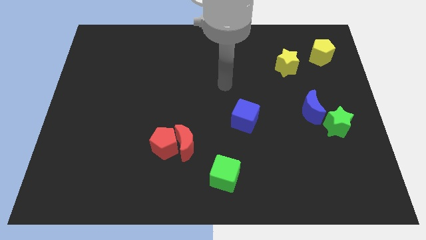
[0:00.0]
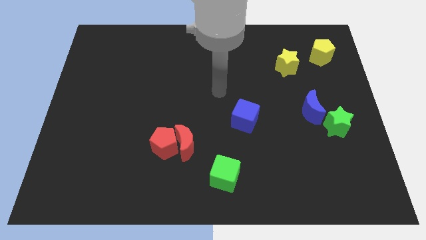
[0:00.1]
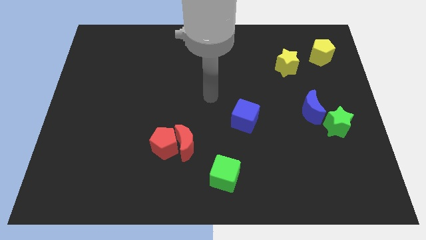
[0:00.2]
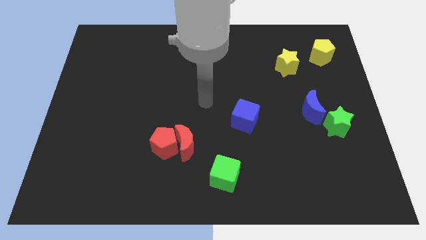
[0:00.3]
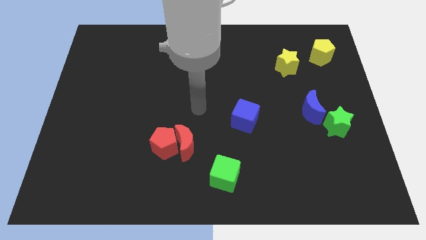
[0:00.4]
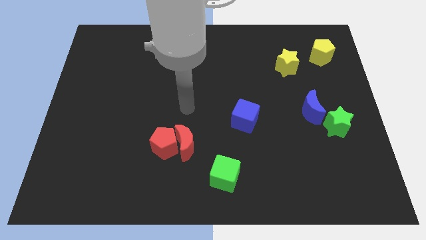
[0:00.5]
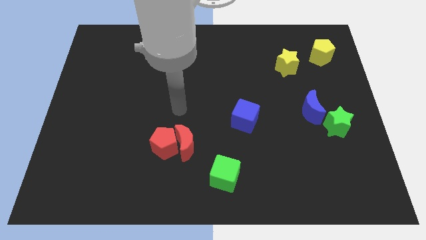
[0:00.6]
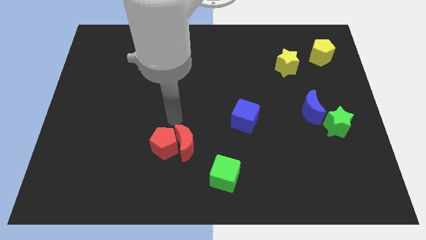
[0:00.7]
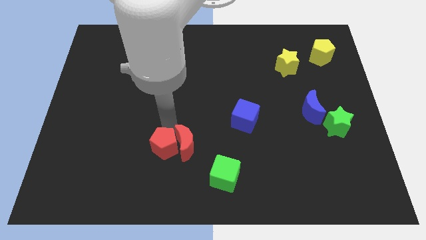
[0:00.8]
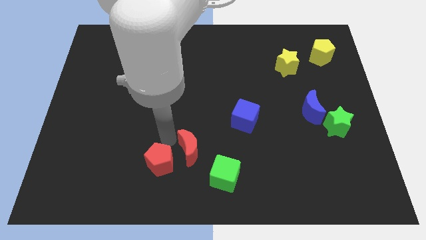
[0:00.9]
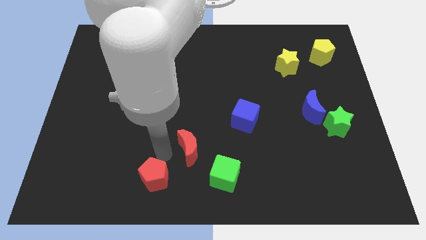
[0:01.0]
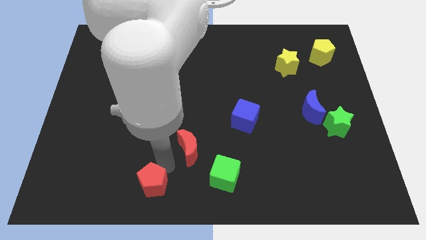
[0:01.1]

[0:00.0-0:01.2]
move the red moon away from the red pentagon

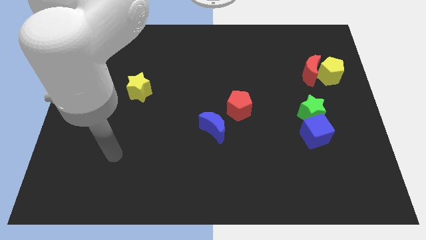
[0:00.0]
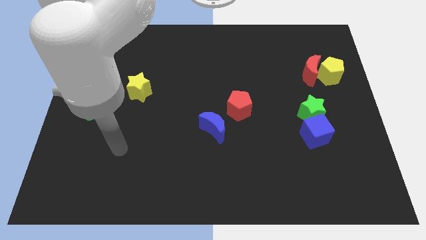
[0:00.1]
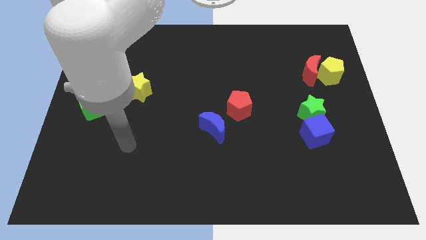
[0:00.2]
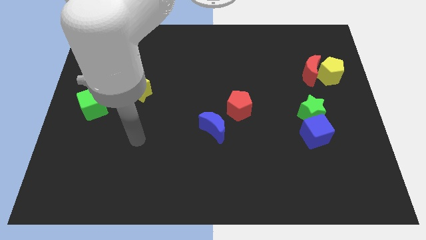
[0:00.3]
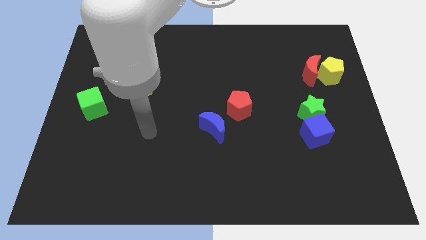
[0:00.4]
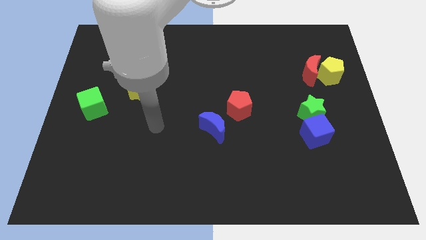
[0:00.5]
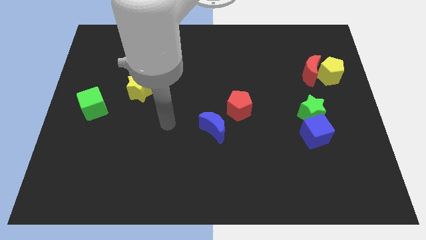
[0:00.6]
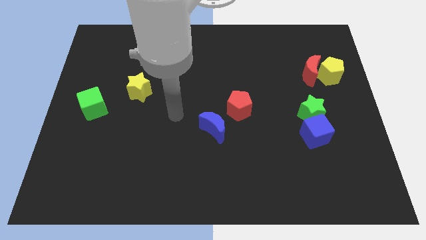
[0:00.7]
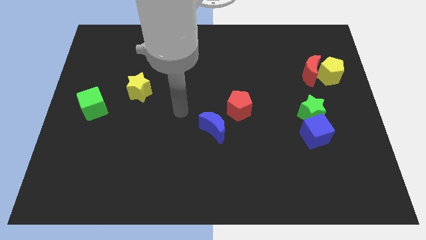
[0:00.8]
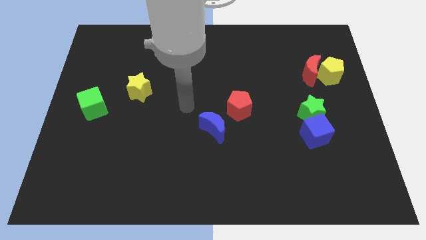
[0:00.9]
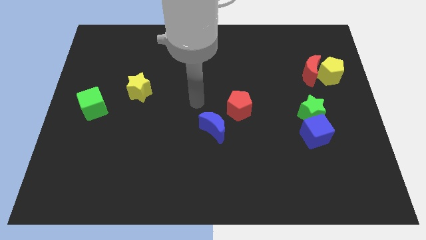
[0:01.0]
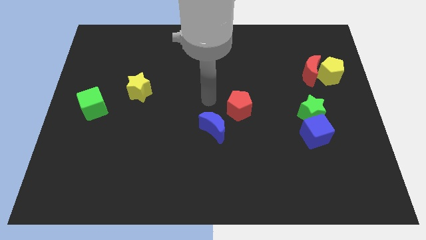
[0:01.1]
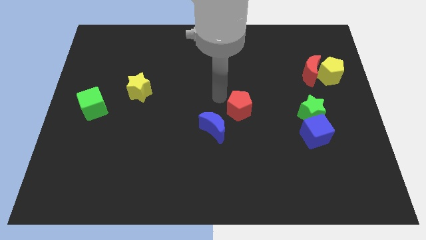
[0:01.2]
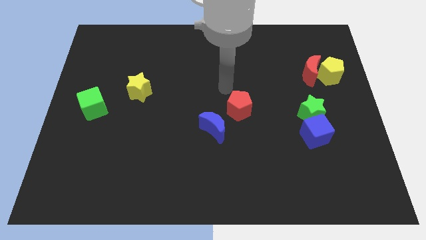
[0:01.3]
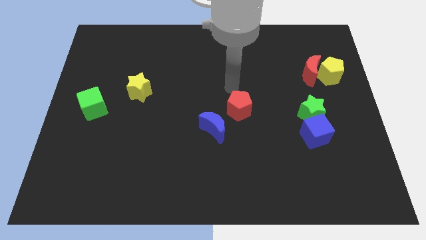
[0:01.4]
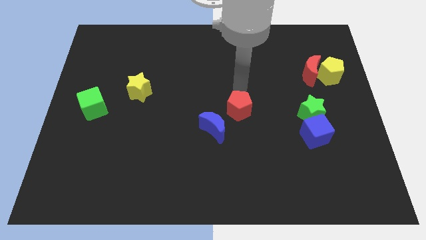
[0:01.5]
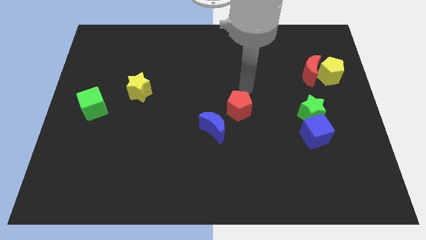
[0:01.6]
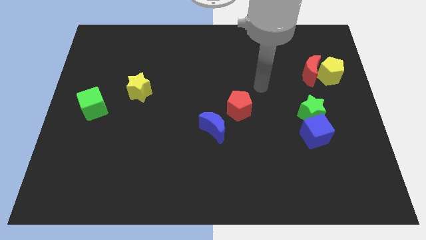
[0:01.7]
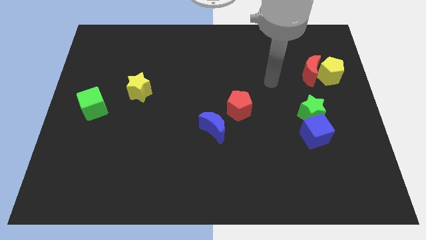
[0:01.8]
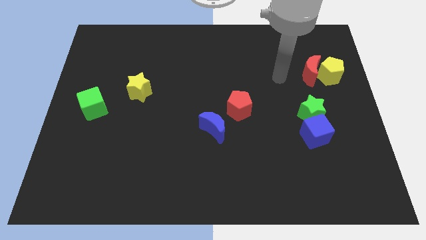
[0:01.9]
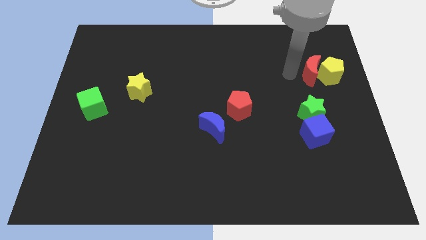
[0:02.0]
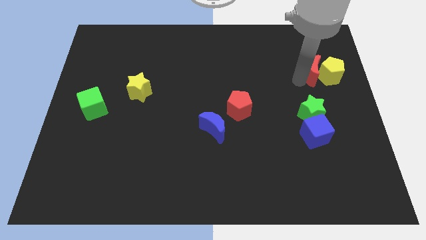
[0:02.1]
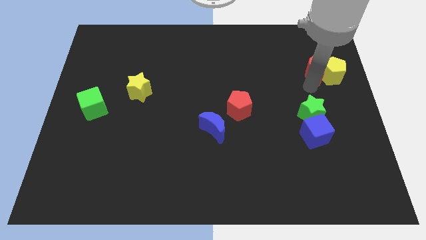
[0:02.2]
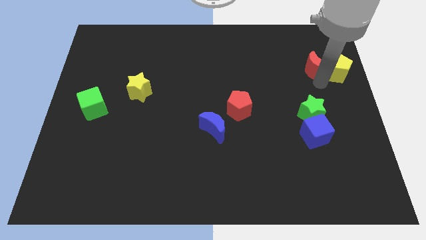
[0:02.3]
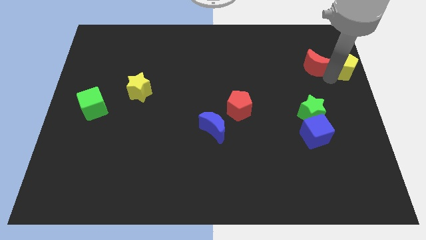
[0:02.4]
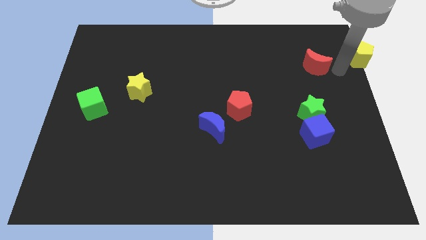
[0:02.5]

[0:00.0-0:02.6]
separate the red moon from the yellow pentagon

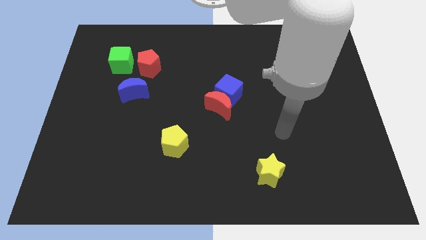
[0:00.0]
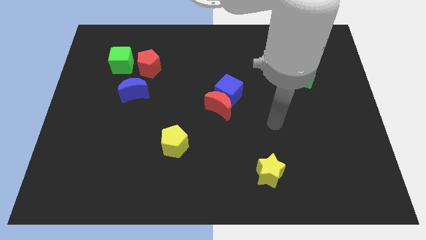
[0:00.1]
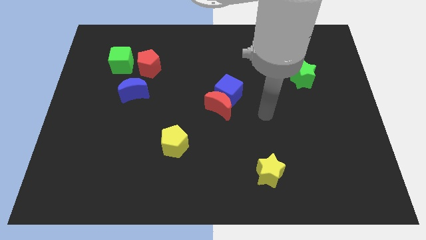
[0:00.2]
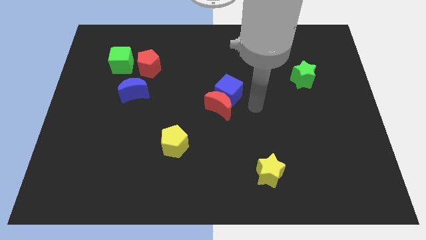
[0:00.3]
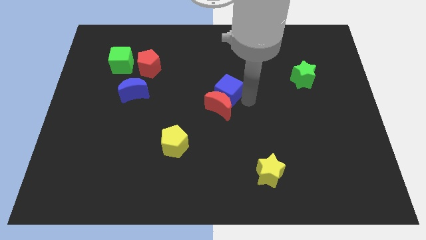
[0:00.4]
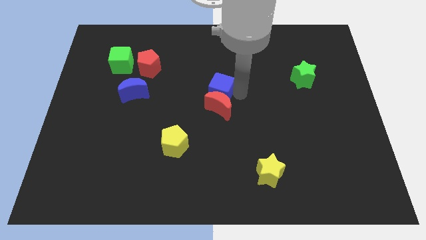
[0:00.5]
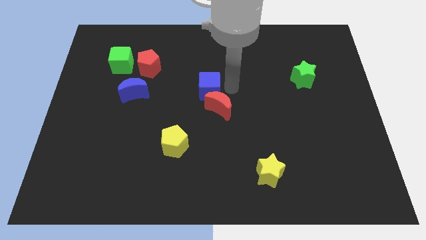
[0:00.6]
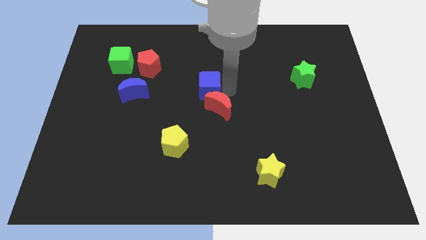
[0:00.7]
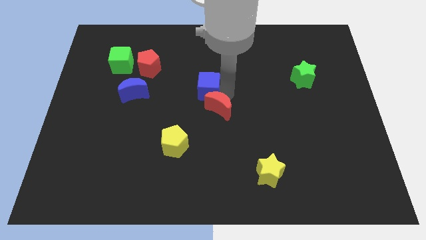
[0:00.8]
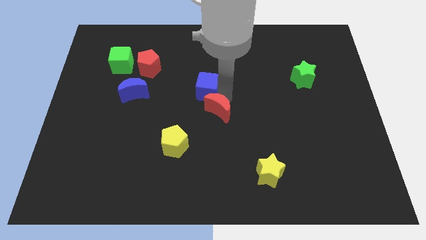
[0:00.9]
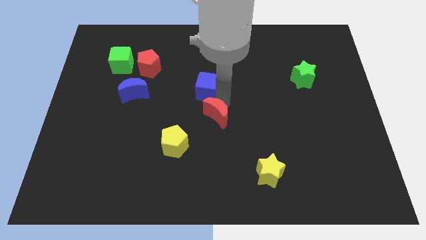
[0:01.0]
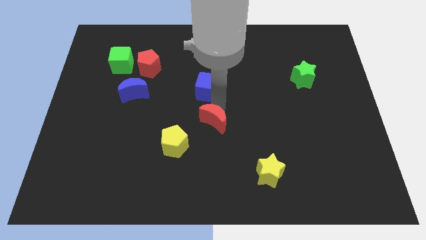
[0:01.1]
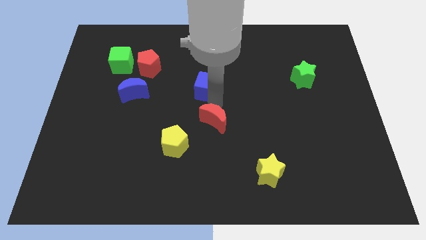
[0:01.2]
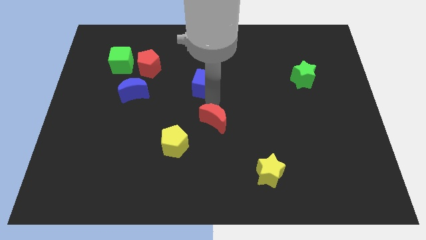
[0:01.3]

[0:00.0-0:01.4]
pull the red moon apart from the blue cube

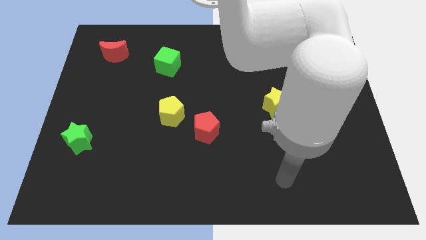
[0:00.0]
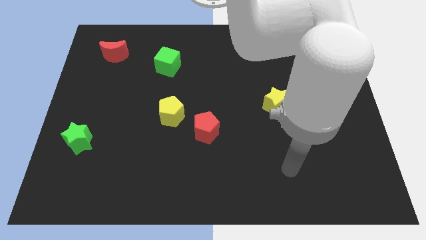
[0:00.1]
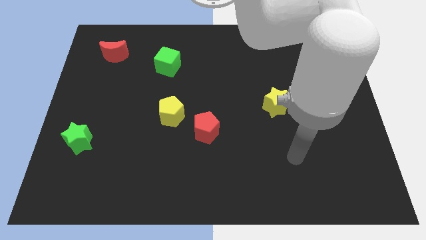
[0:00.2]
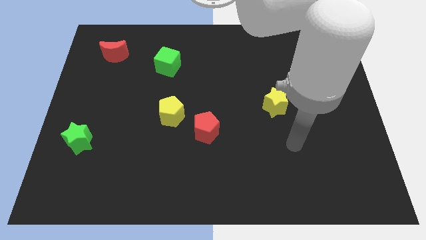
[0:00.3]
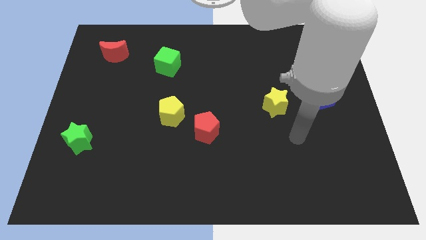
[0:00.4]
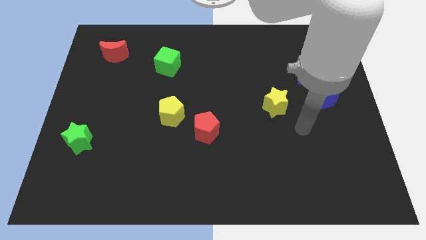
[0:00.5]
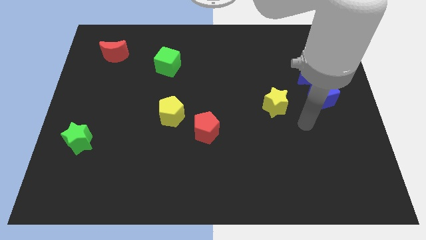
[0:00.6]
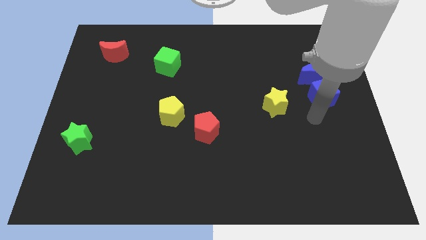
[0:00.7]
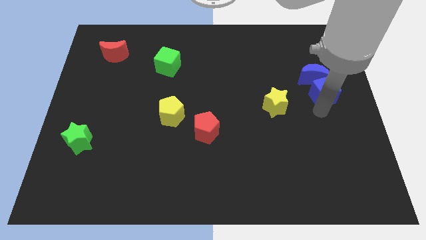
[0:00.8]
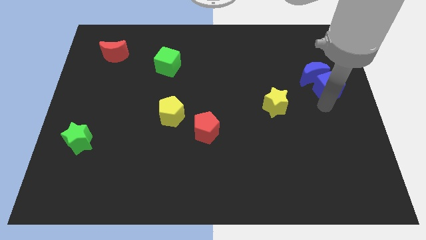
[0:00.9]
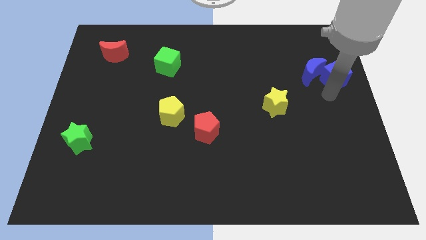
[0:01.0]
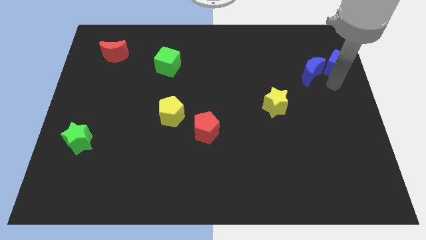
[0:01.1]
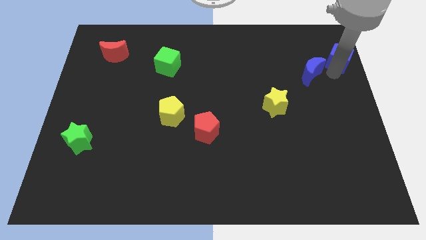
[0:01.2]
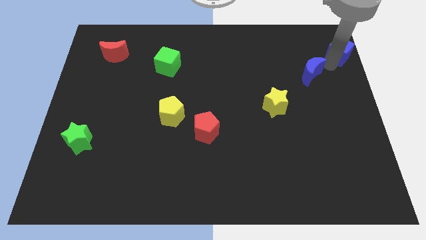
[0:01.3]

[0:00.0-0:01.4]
move the blue moon away from the blue cube

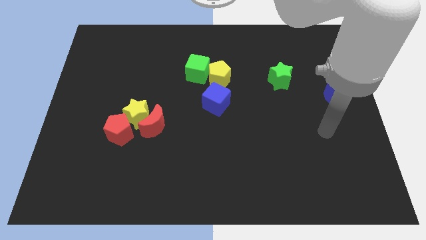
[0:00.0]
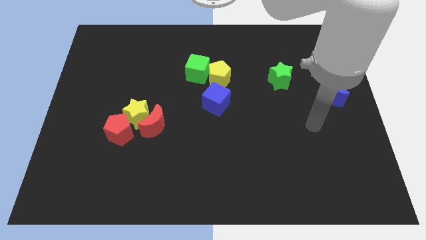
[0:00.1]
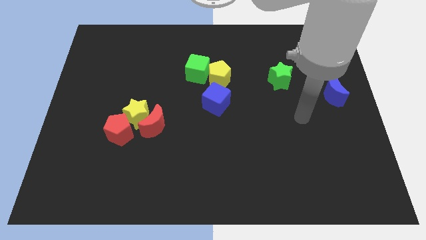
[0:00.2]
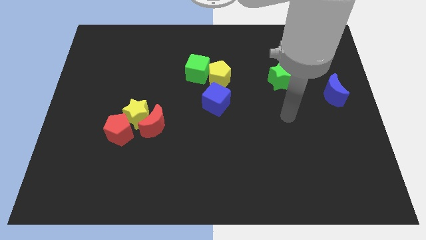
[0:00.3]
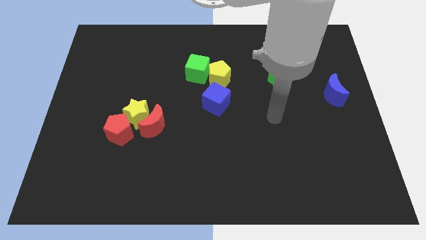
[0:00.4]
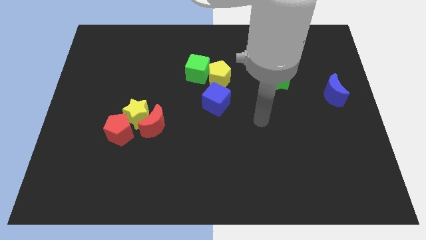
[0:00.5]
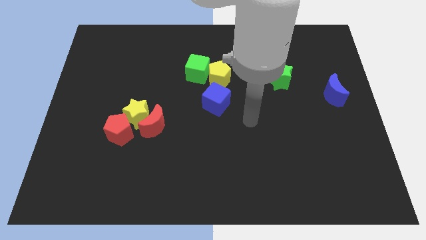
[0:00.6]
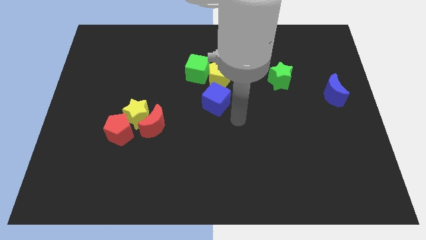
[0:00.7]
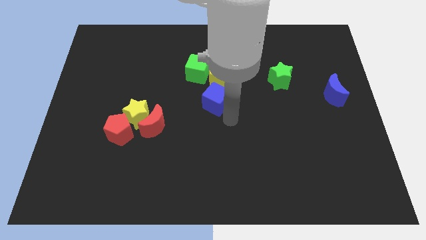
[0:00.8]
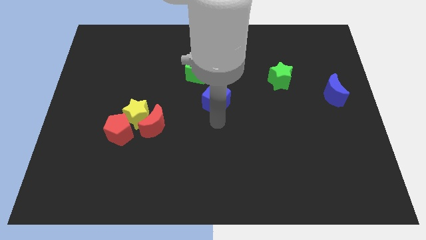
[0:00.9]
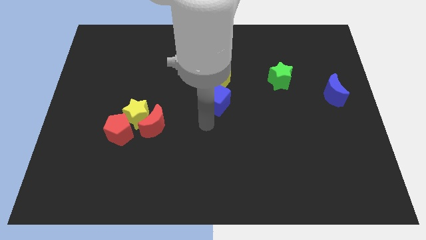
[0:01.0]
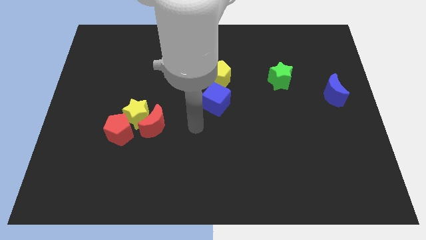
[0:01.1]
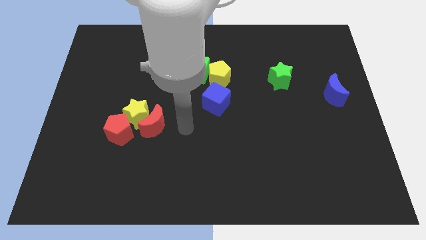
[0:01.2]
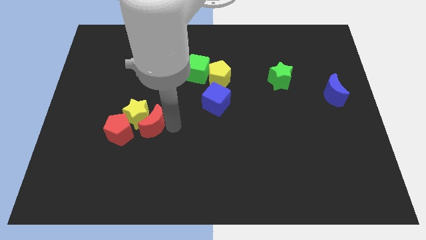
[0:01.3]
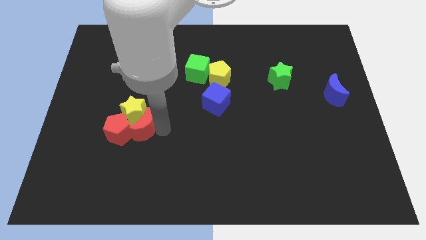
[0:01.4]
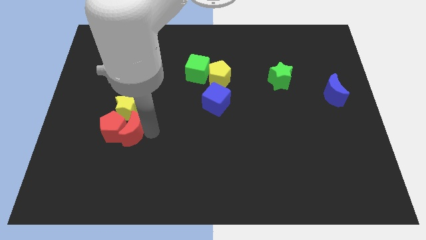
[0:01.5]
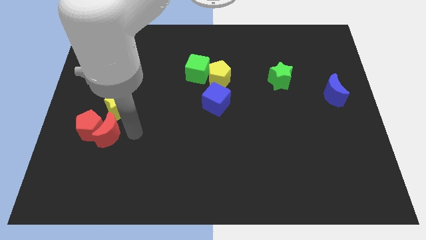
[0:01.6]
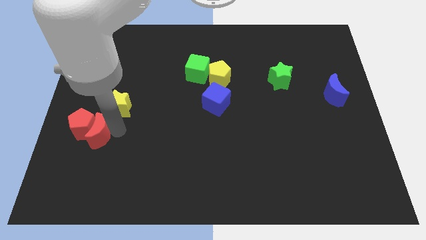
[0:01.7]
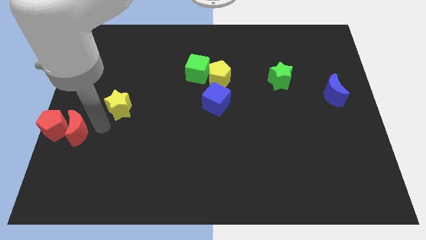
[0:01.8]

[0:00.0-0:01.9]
separate the yellow star from the red moon and red pentagon

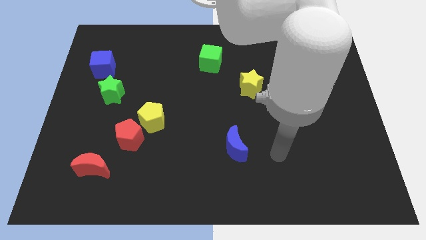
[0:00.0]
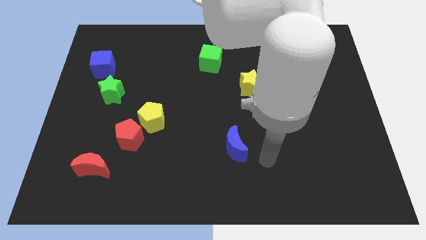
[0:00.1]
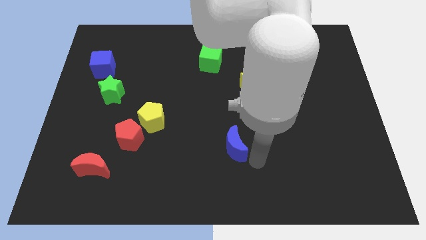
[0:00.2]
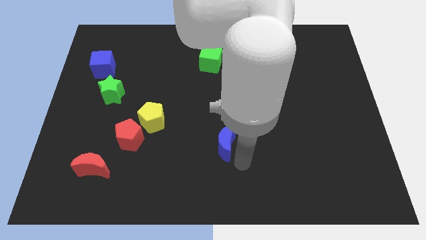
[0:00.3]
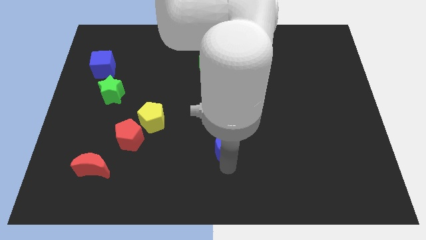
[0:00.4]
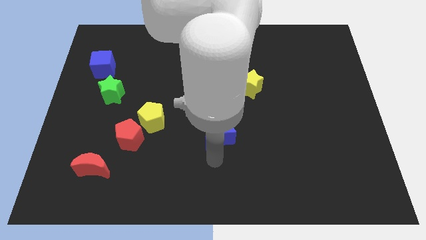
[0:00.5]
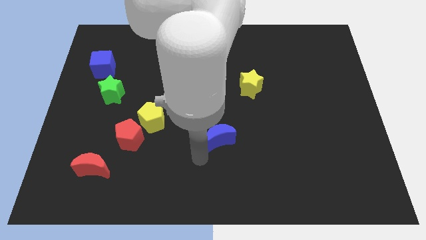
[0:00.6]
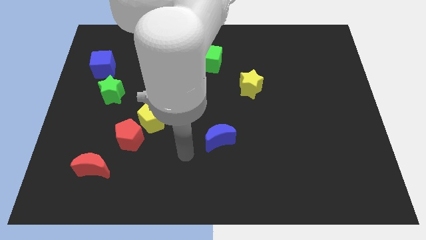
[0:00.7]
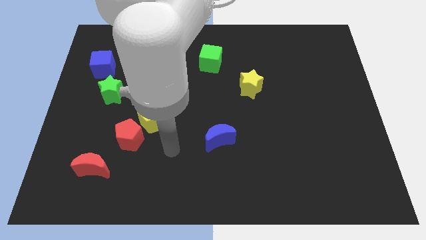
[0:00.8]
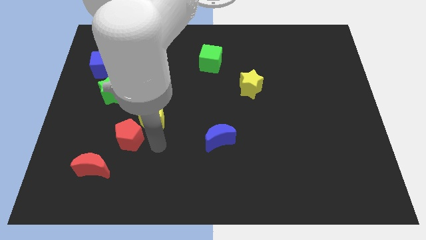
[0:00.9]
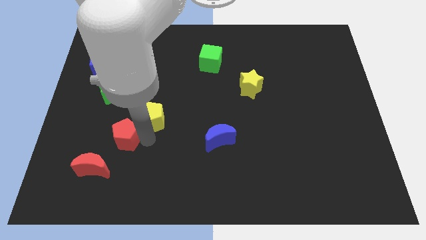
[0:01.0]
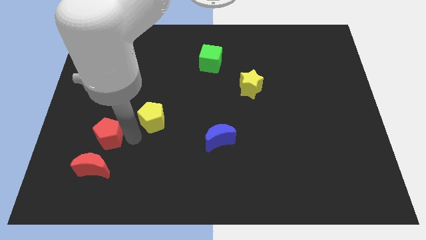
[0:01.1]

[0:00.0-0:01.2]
move the yellow pentagon away from the red pentagon
